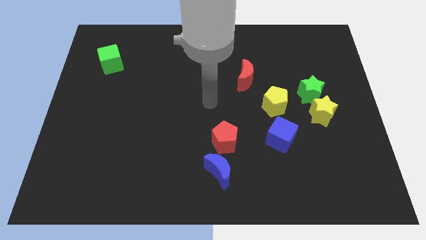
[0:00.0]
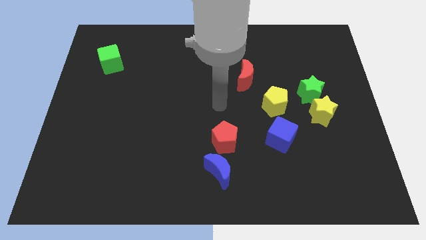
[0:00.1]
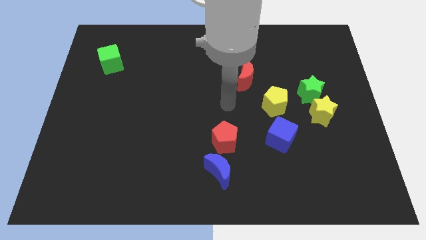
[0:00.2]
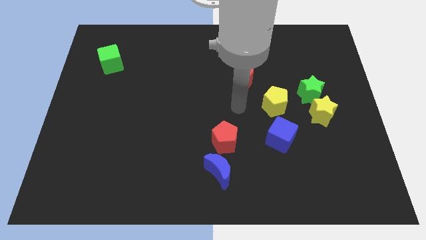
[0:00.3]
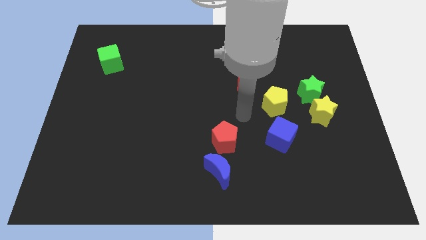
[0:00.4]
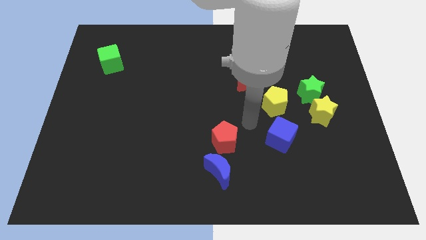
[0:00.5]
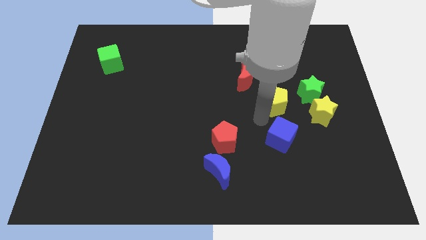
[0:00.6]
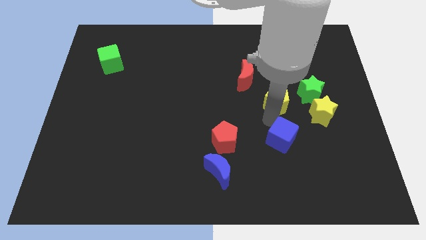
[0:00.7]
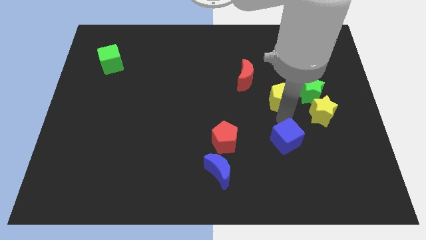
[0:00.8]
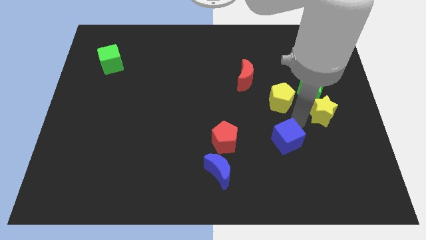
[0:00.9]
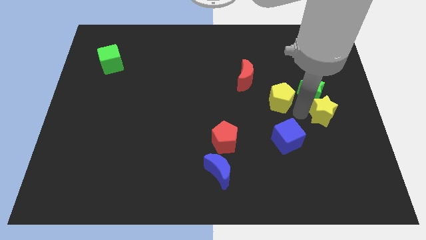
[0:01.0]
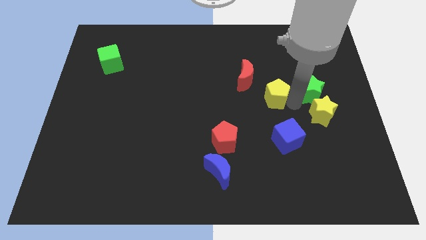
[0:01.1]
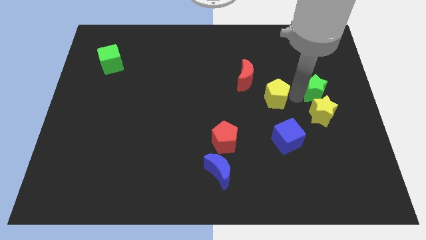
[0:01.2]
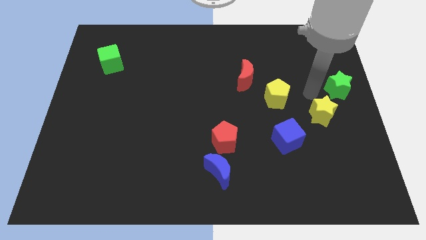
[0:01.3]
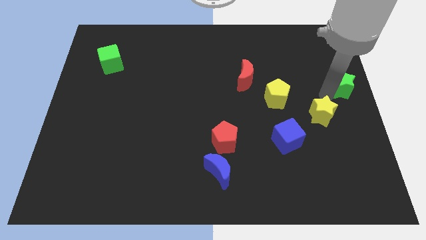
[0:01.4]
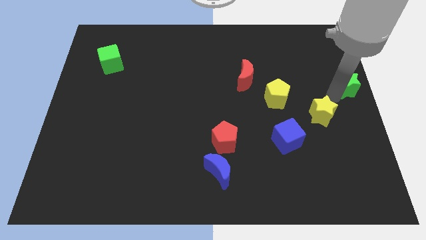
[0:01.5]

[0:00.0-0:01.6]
pull the yellow star apart from the green star

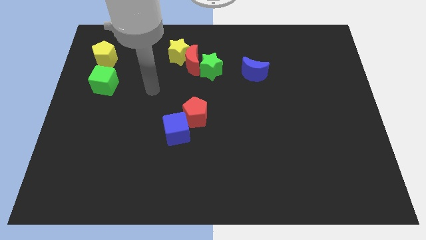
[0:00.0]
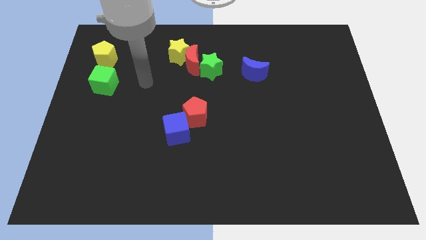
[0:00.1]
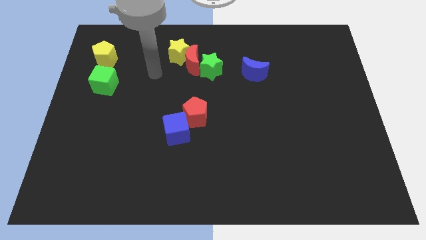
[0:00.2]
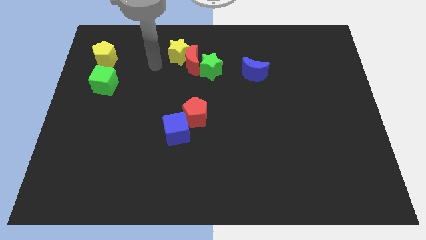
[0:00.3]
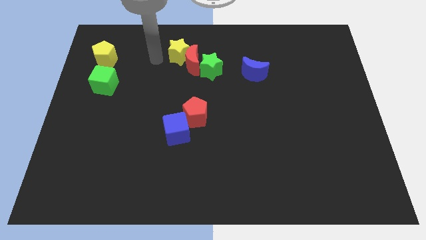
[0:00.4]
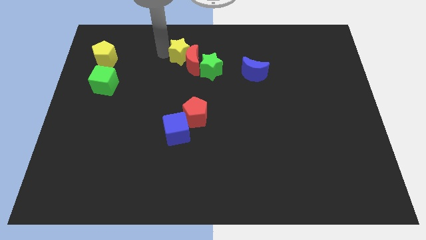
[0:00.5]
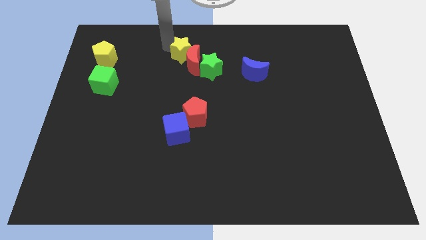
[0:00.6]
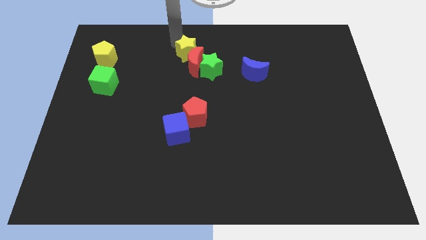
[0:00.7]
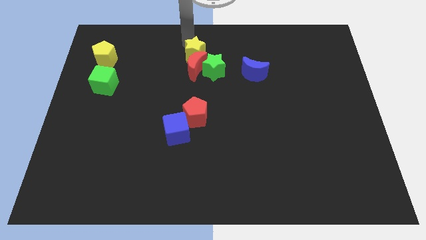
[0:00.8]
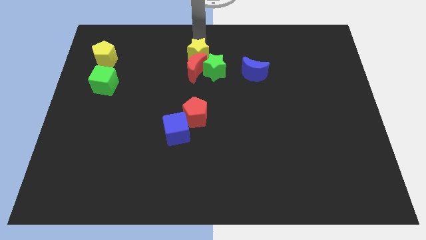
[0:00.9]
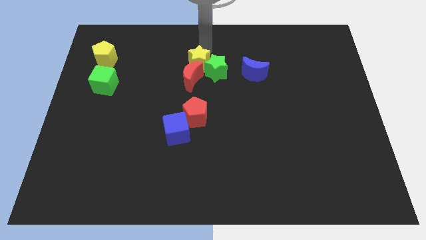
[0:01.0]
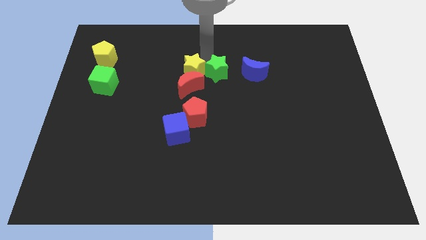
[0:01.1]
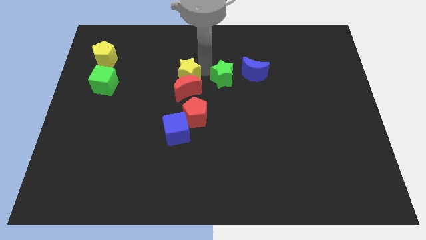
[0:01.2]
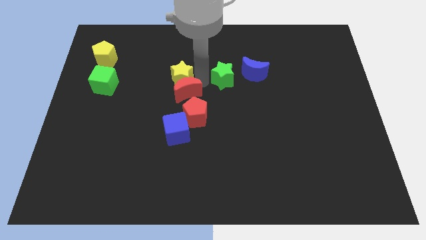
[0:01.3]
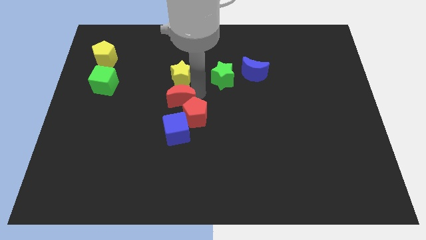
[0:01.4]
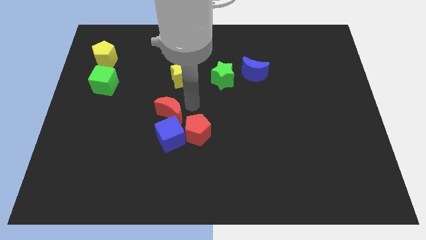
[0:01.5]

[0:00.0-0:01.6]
move the red moon away from the yellow star and green star

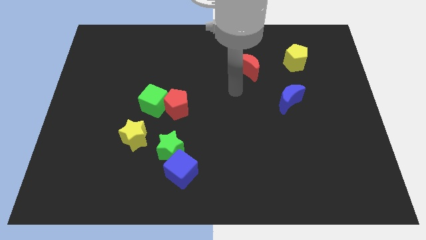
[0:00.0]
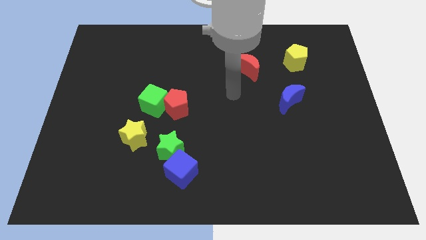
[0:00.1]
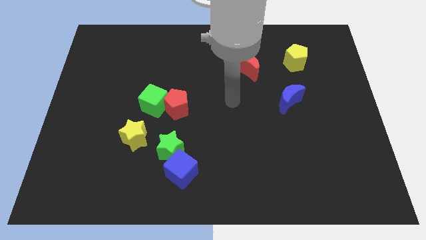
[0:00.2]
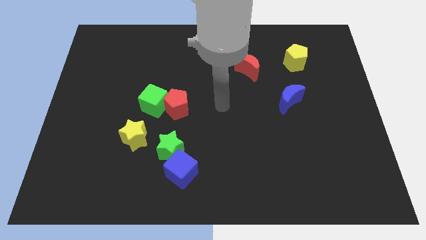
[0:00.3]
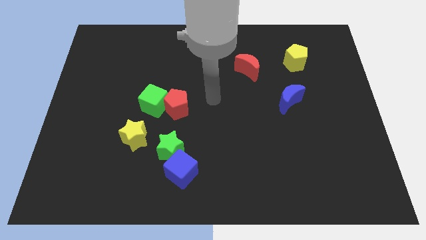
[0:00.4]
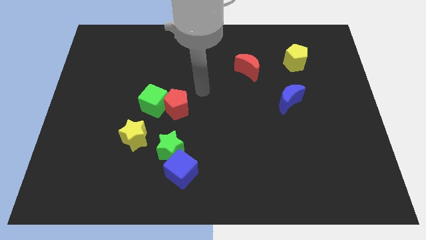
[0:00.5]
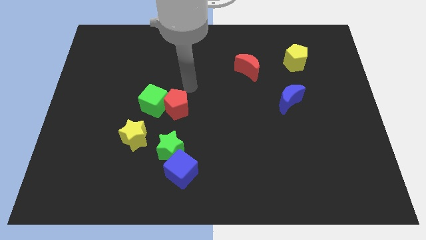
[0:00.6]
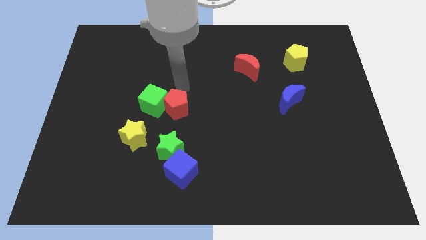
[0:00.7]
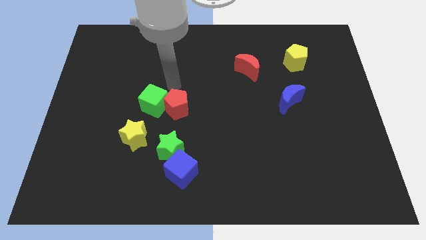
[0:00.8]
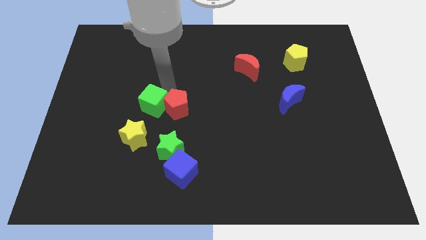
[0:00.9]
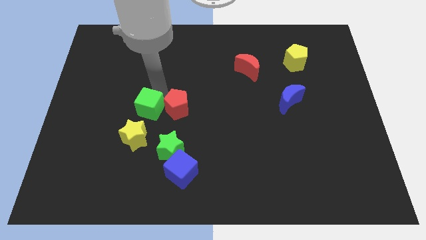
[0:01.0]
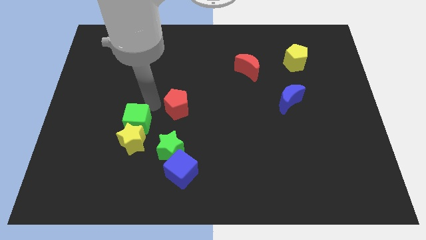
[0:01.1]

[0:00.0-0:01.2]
pull the red pentagon apart from the green cube

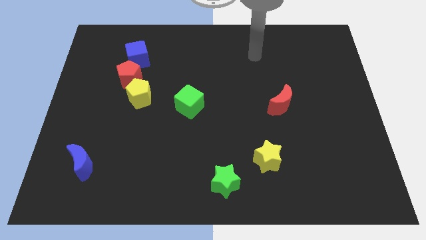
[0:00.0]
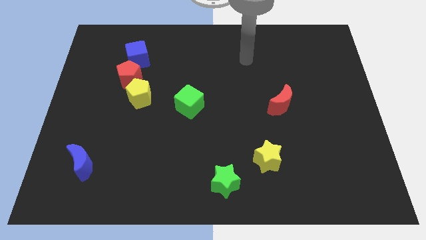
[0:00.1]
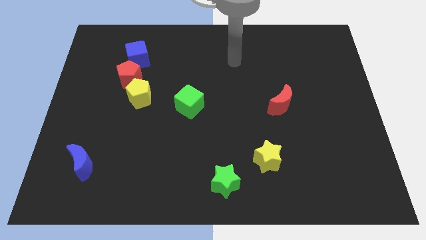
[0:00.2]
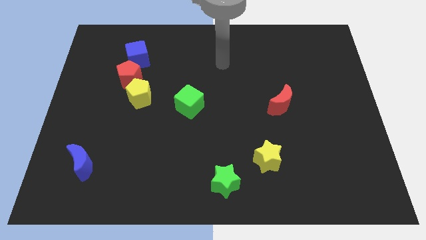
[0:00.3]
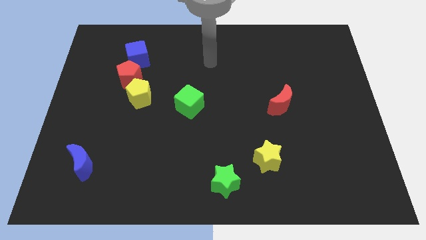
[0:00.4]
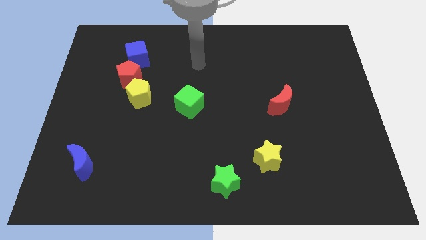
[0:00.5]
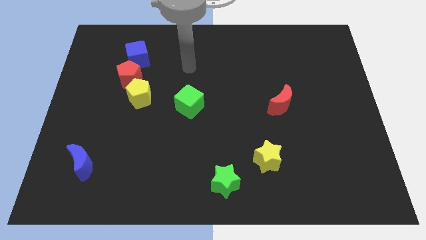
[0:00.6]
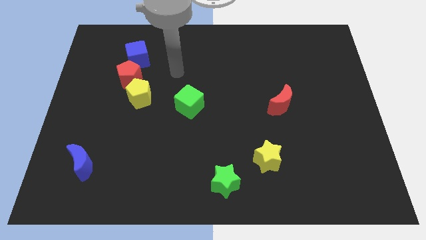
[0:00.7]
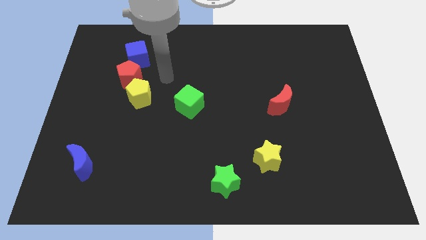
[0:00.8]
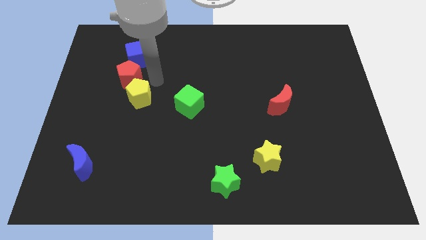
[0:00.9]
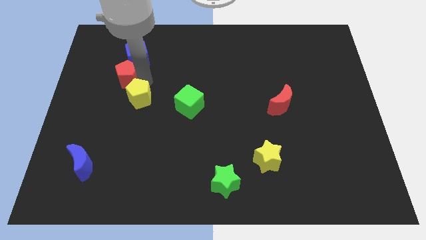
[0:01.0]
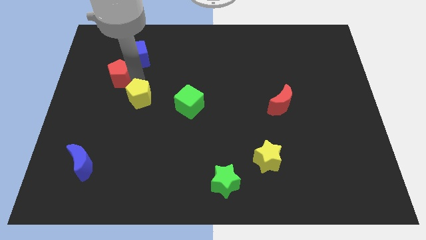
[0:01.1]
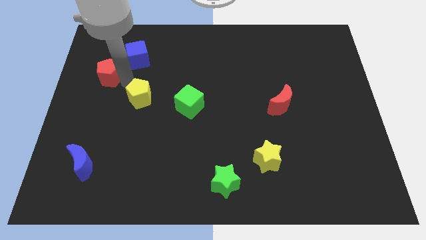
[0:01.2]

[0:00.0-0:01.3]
separate the yellow pentagon from the red pentagon

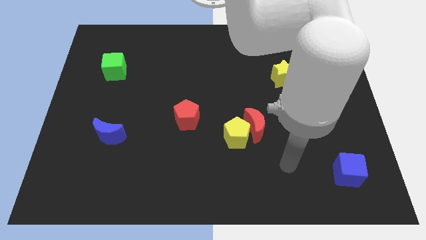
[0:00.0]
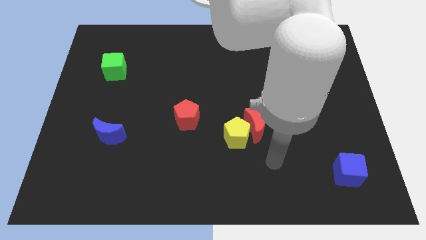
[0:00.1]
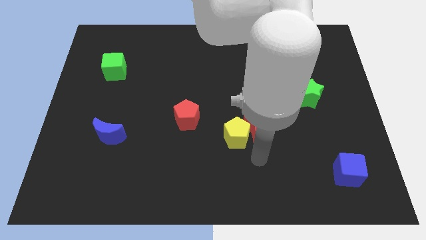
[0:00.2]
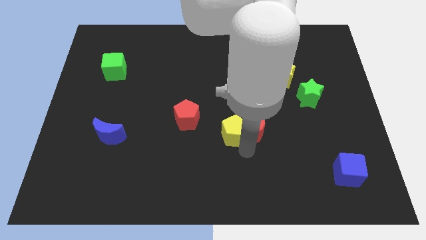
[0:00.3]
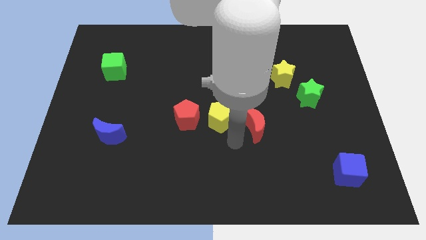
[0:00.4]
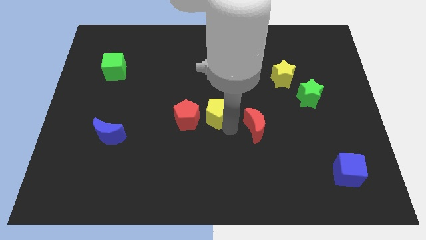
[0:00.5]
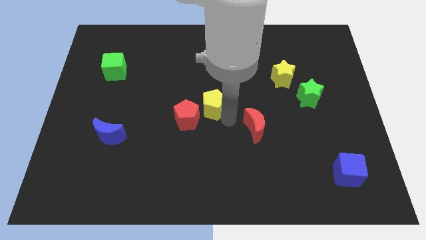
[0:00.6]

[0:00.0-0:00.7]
separate the red moon from the yellow pentagon

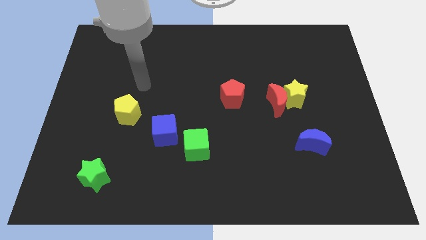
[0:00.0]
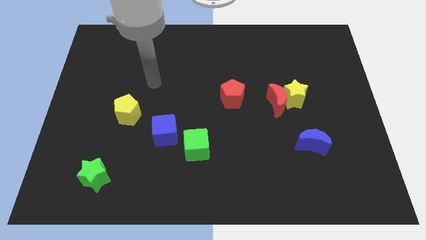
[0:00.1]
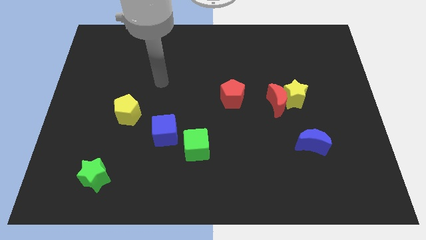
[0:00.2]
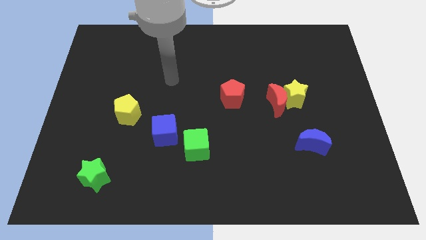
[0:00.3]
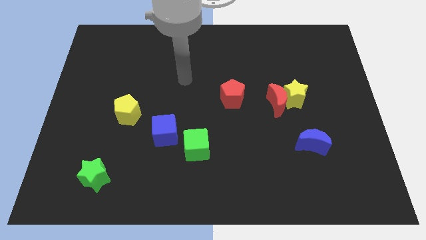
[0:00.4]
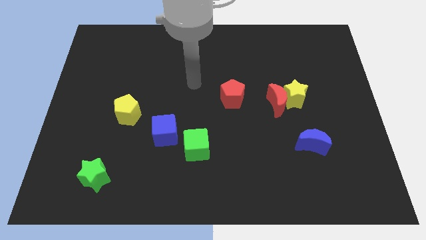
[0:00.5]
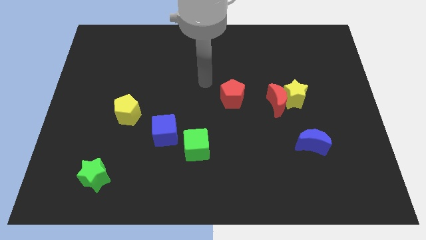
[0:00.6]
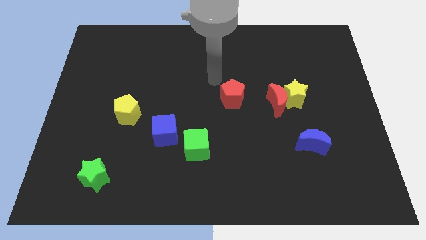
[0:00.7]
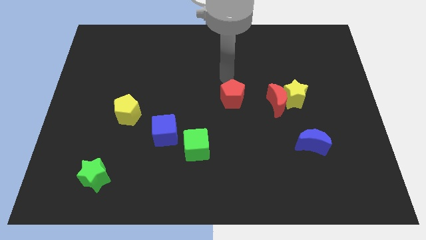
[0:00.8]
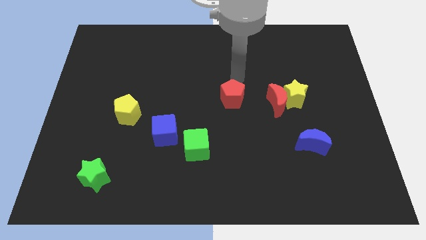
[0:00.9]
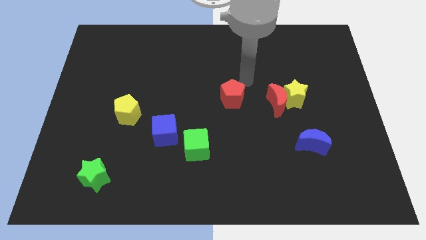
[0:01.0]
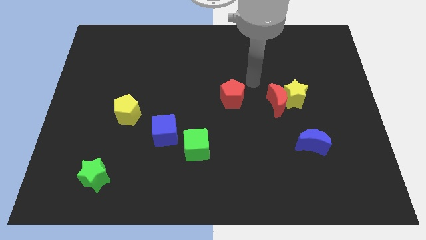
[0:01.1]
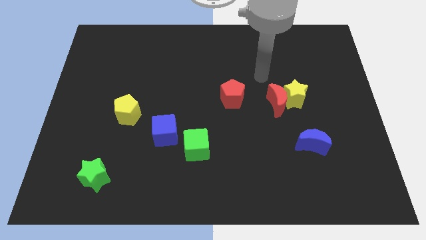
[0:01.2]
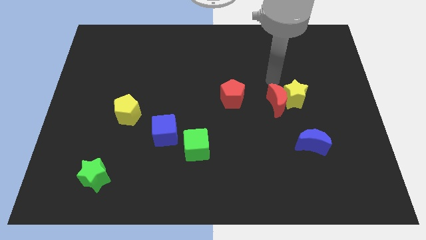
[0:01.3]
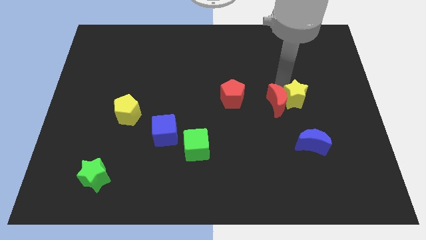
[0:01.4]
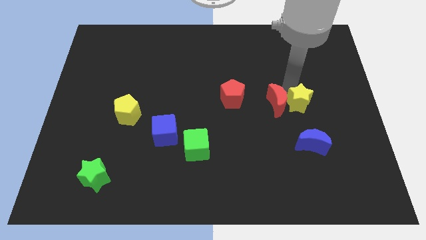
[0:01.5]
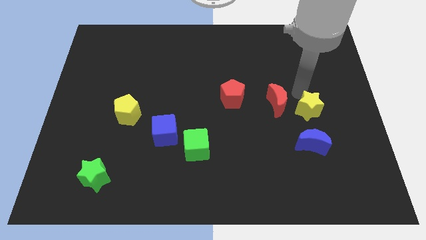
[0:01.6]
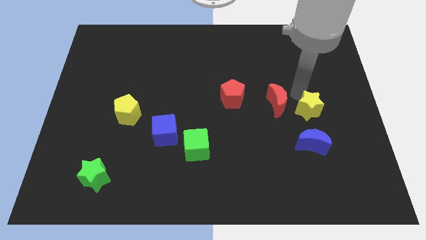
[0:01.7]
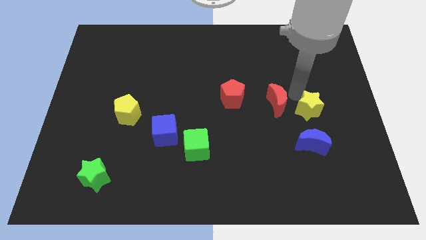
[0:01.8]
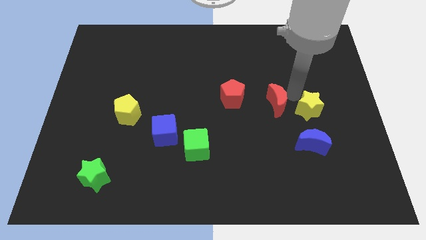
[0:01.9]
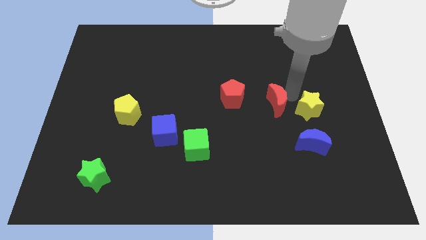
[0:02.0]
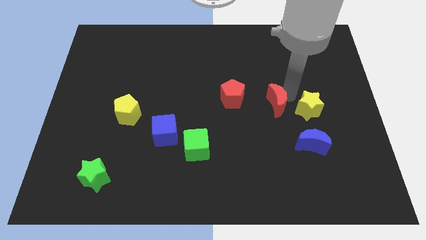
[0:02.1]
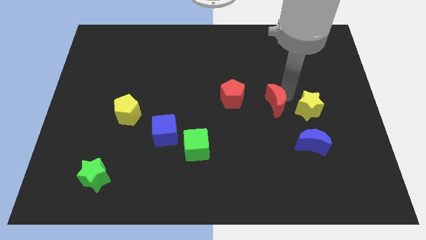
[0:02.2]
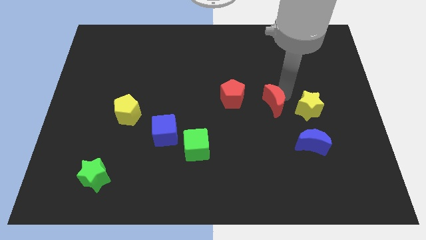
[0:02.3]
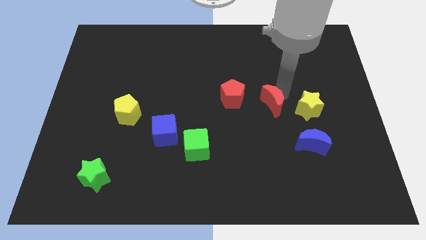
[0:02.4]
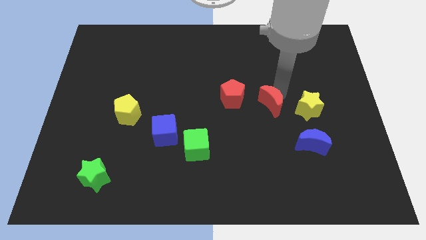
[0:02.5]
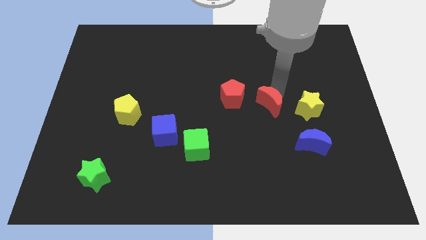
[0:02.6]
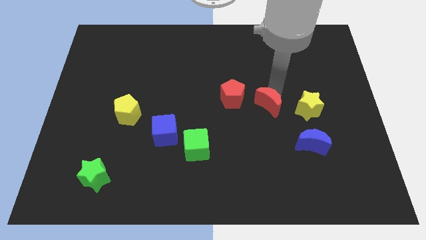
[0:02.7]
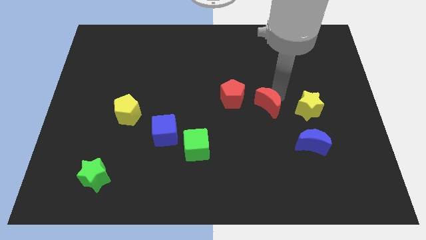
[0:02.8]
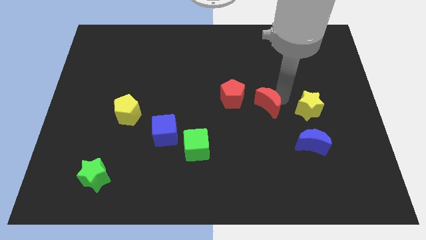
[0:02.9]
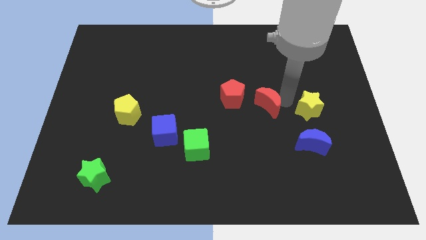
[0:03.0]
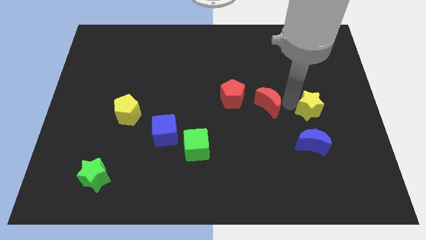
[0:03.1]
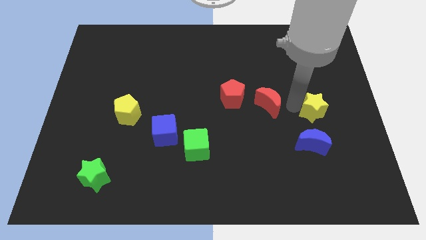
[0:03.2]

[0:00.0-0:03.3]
pull the red moon apart from the yellow star
